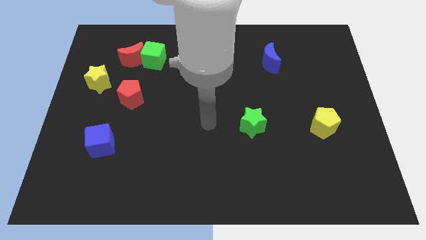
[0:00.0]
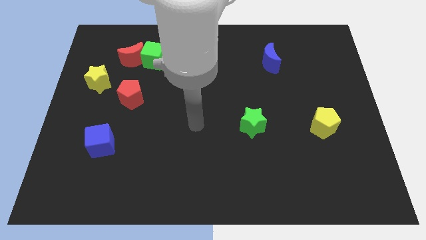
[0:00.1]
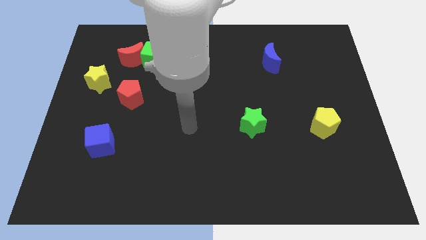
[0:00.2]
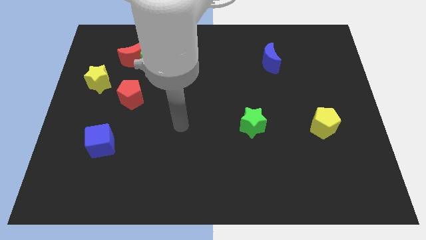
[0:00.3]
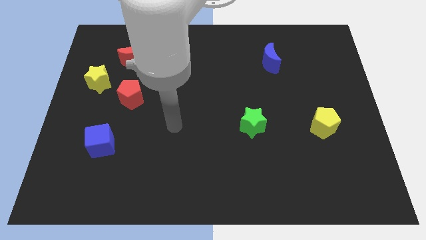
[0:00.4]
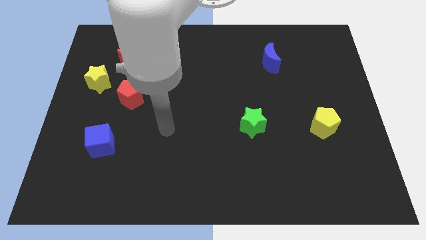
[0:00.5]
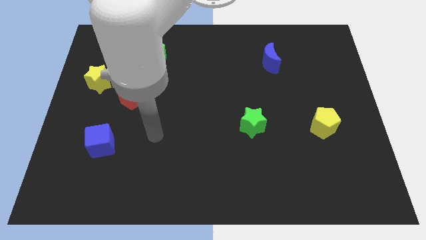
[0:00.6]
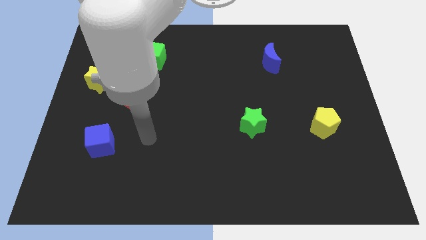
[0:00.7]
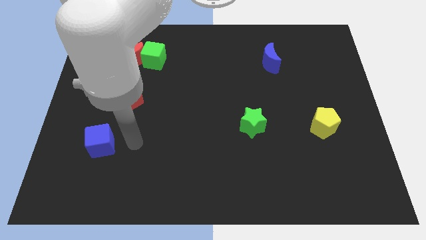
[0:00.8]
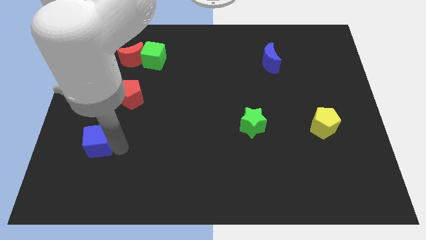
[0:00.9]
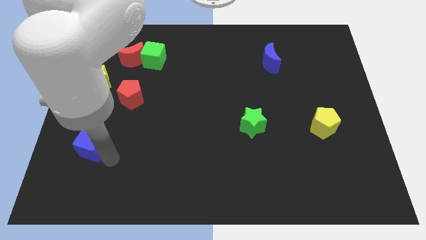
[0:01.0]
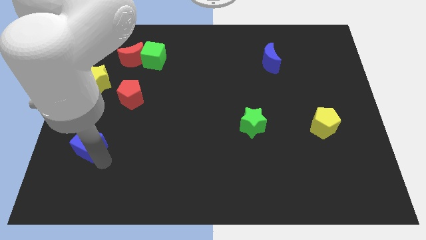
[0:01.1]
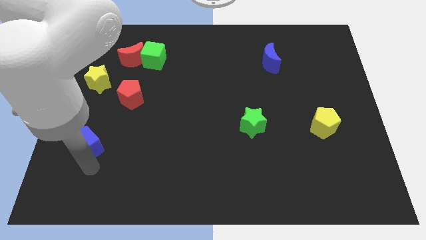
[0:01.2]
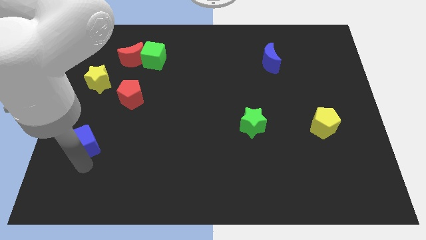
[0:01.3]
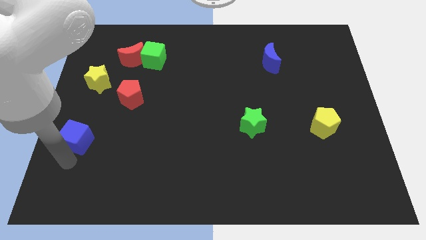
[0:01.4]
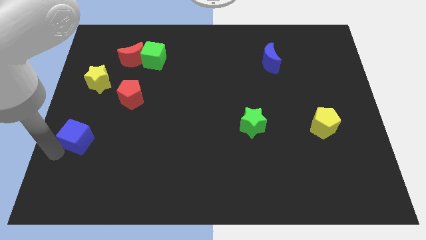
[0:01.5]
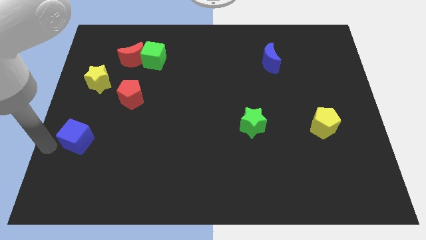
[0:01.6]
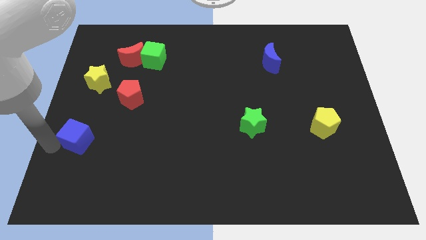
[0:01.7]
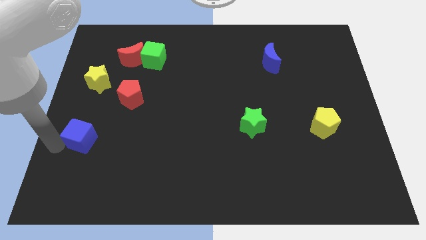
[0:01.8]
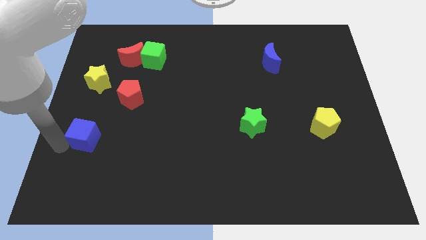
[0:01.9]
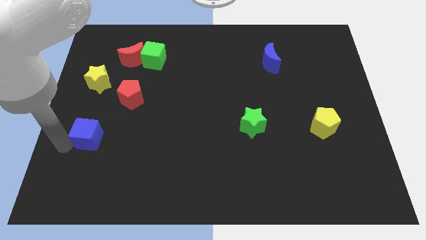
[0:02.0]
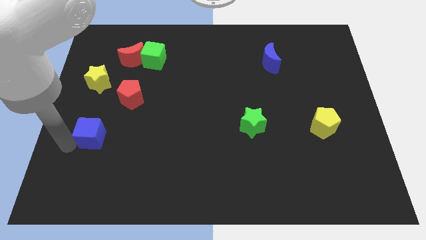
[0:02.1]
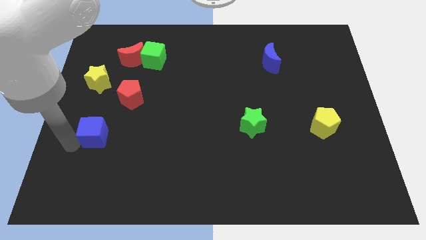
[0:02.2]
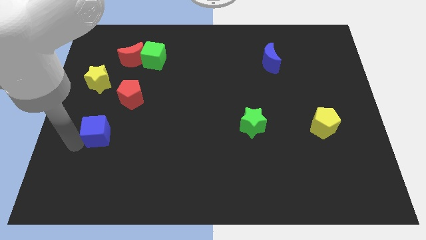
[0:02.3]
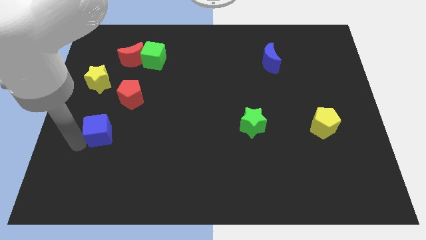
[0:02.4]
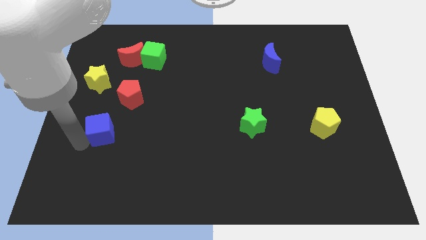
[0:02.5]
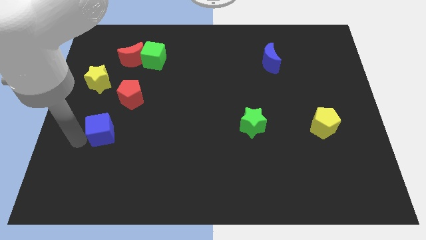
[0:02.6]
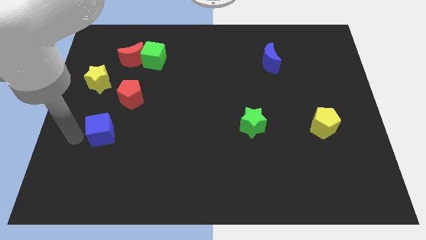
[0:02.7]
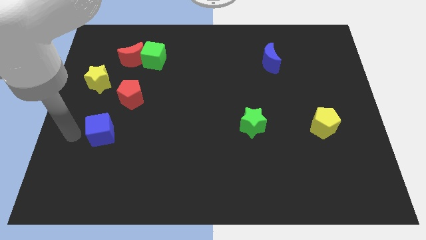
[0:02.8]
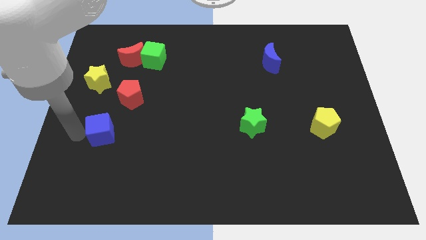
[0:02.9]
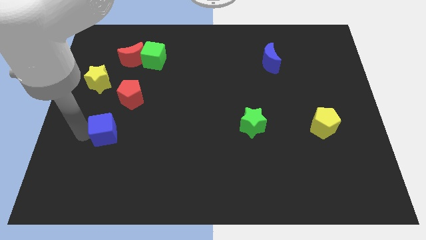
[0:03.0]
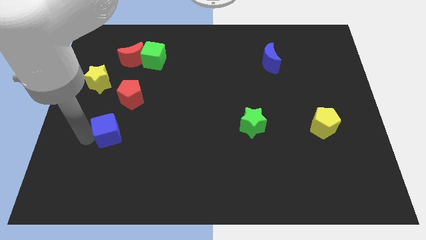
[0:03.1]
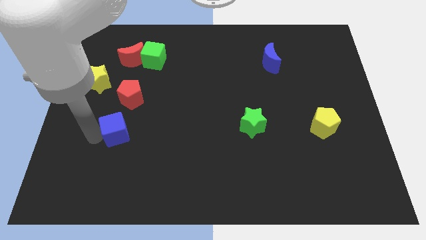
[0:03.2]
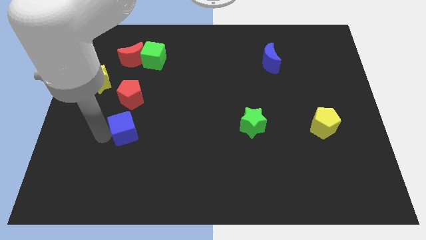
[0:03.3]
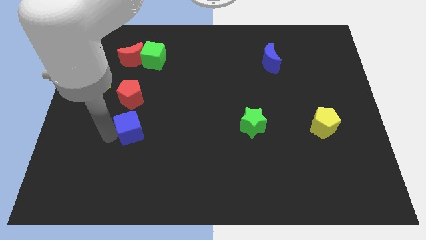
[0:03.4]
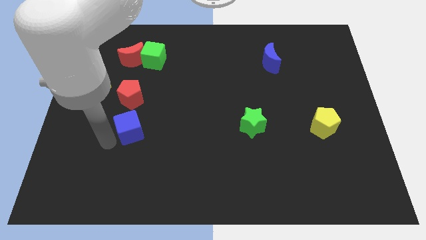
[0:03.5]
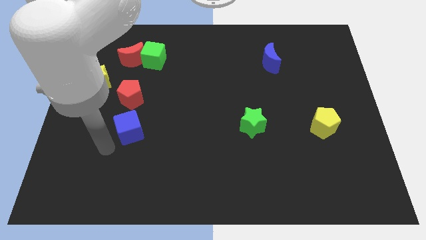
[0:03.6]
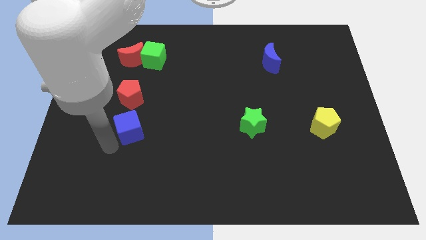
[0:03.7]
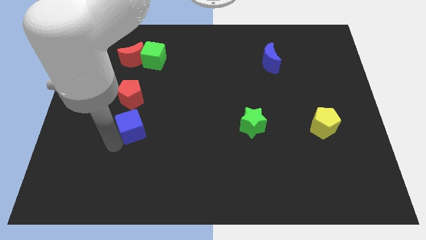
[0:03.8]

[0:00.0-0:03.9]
slightly move the blue cube upwards and to the right

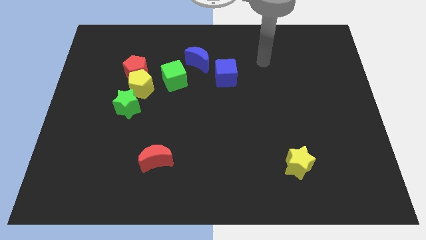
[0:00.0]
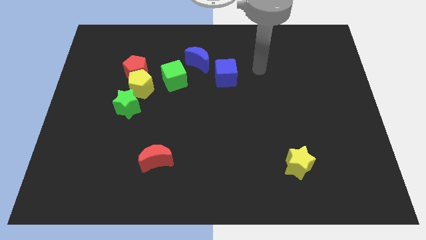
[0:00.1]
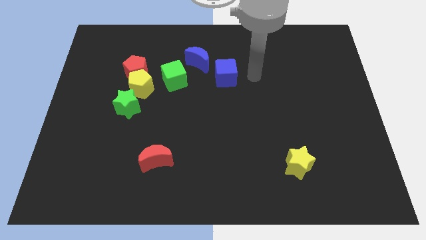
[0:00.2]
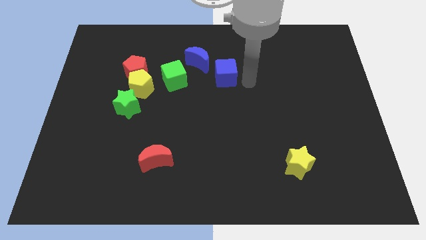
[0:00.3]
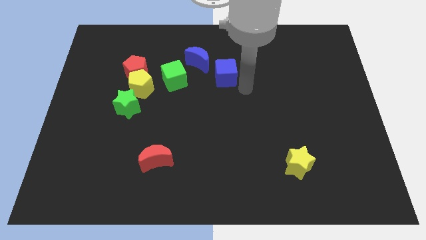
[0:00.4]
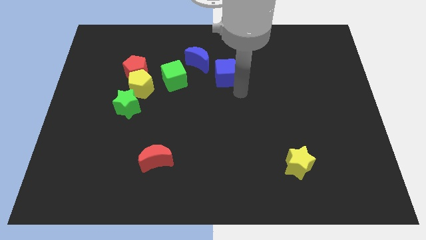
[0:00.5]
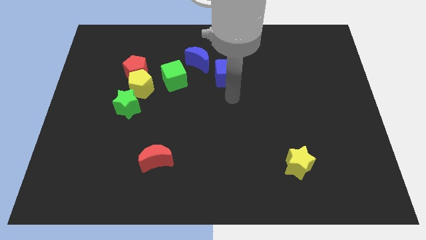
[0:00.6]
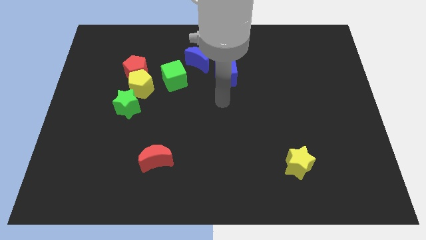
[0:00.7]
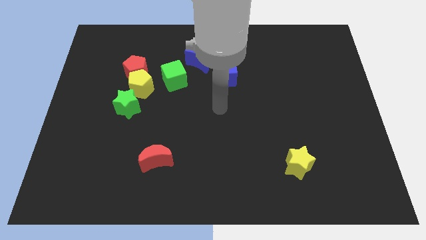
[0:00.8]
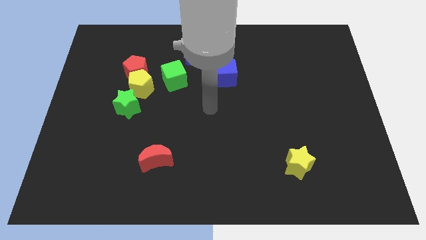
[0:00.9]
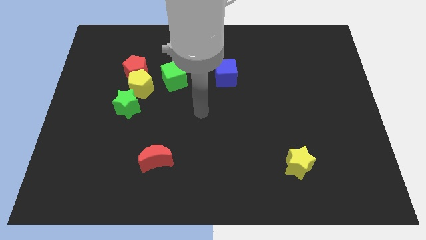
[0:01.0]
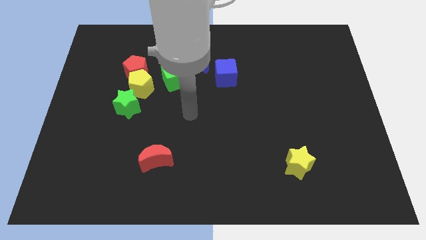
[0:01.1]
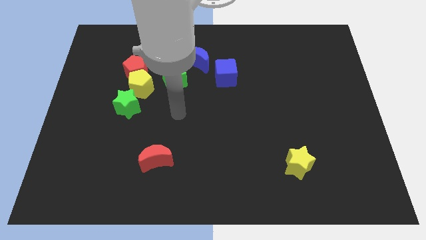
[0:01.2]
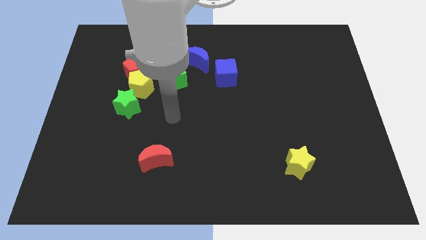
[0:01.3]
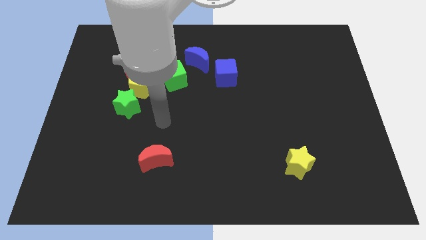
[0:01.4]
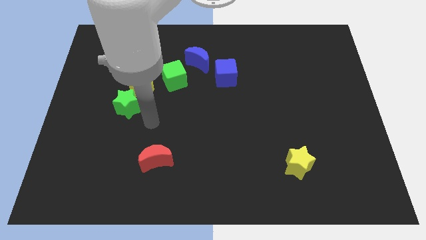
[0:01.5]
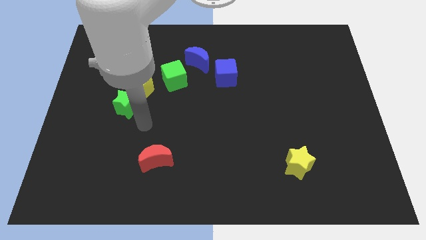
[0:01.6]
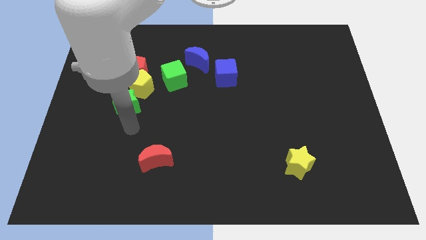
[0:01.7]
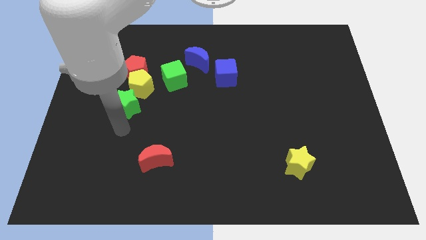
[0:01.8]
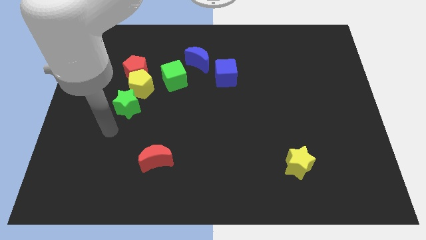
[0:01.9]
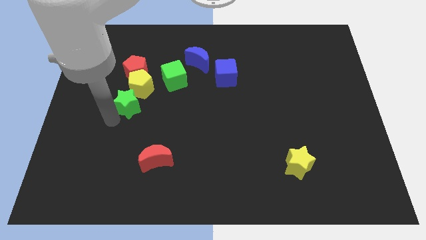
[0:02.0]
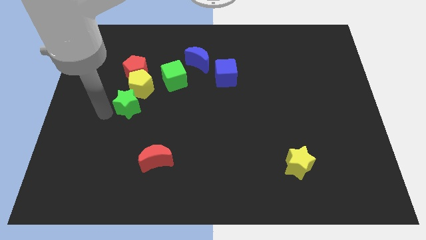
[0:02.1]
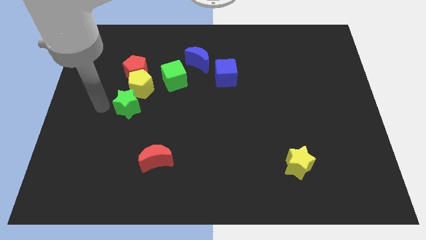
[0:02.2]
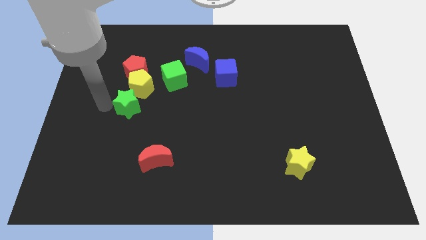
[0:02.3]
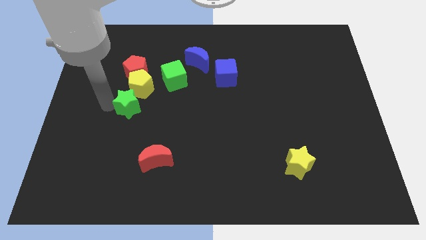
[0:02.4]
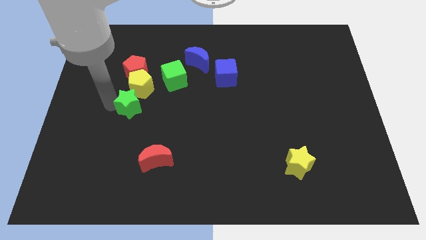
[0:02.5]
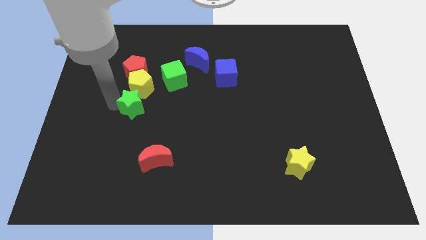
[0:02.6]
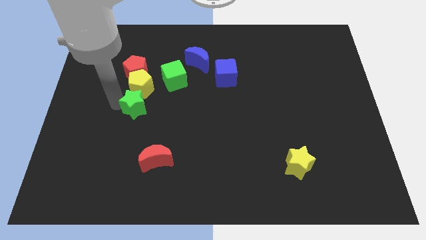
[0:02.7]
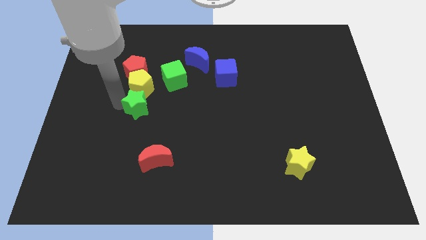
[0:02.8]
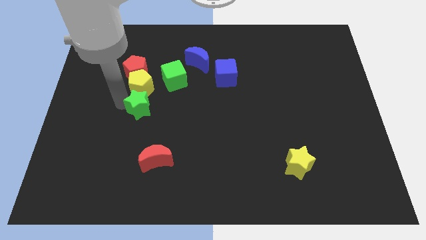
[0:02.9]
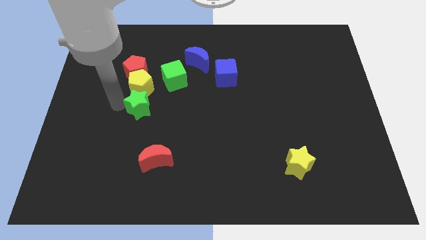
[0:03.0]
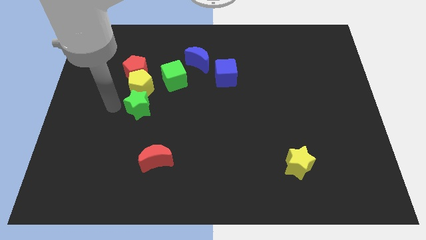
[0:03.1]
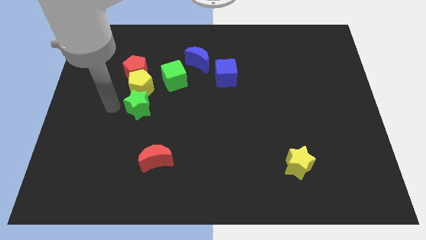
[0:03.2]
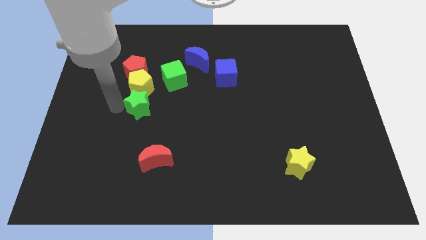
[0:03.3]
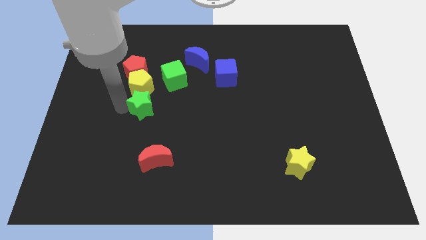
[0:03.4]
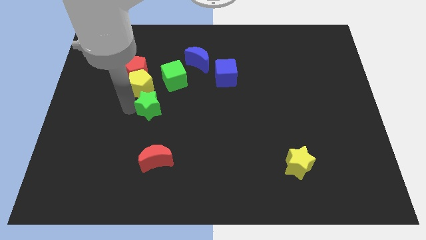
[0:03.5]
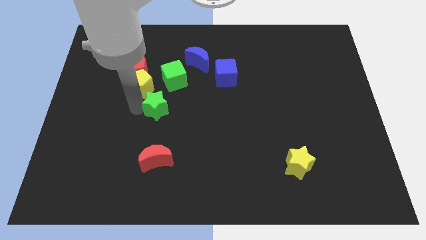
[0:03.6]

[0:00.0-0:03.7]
slide the green star a bit right

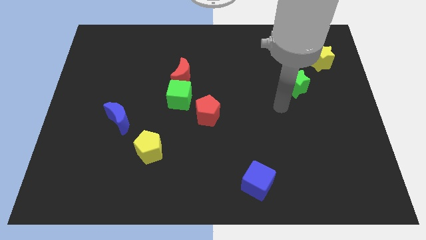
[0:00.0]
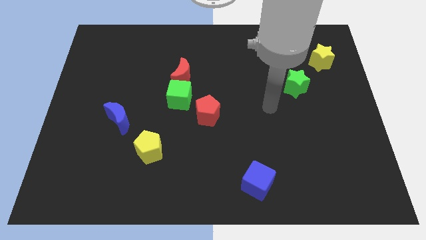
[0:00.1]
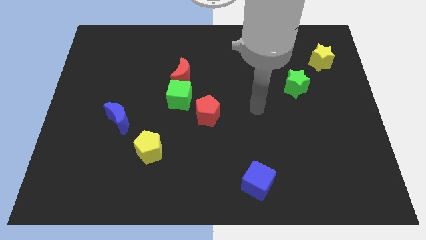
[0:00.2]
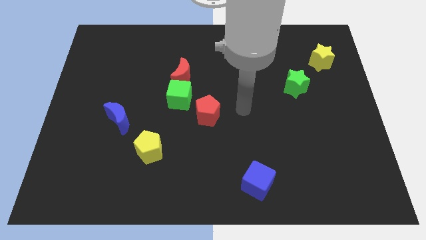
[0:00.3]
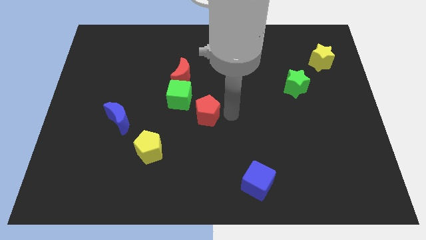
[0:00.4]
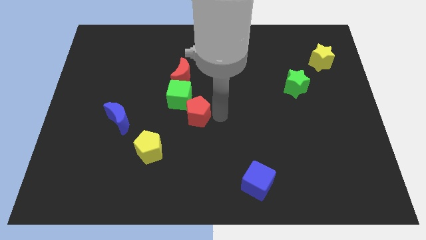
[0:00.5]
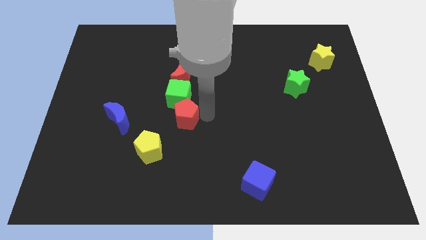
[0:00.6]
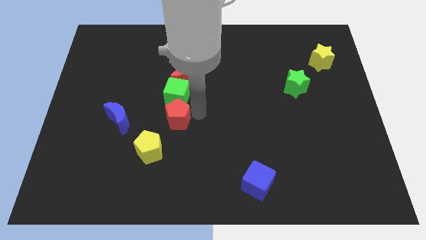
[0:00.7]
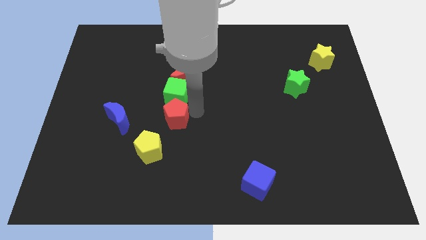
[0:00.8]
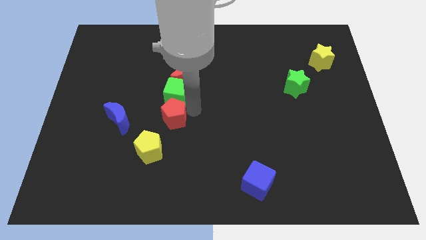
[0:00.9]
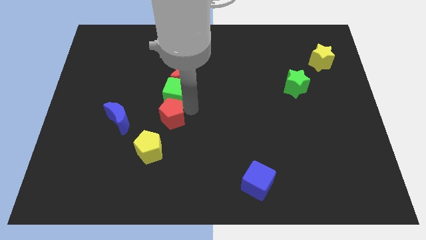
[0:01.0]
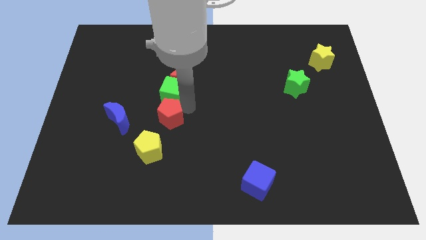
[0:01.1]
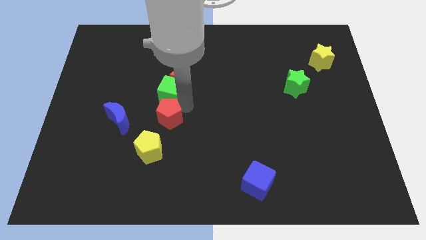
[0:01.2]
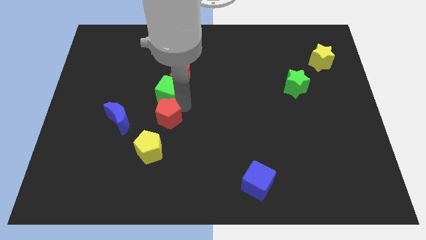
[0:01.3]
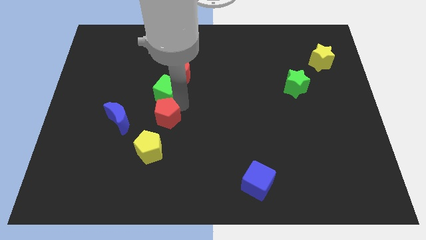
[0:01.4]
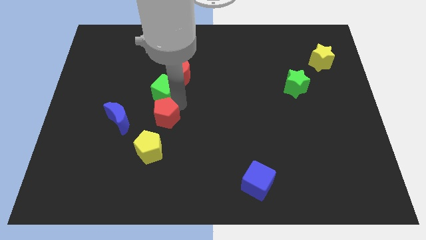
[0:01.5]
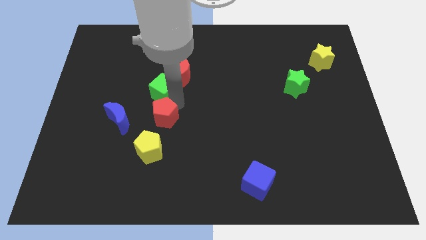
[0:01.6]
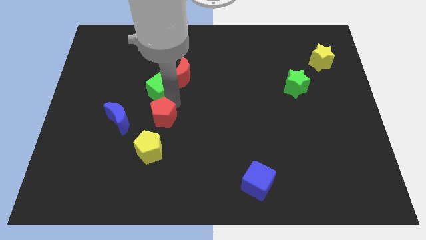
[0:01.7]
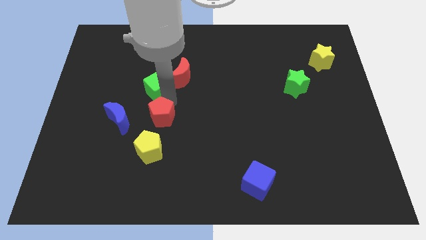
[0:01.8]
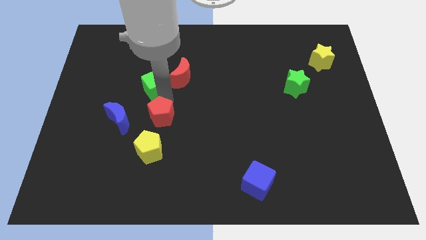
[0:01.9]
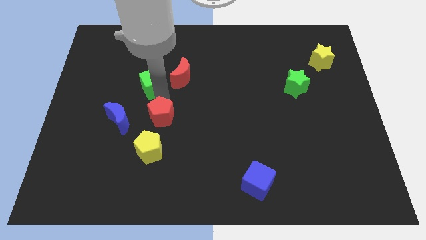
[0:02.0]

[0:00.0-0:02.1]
move the green cube a little bit up and then to the left
